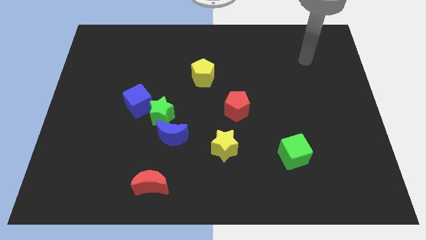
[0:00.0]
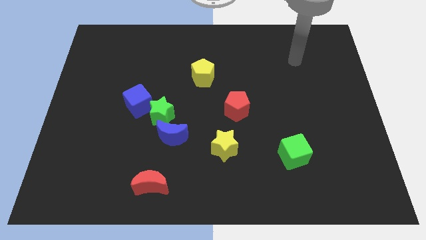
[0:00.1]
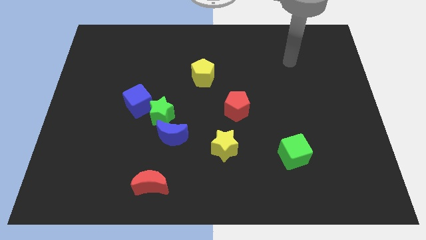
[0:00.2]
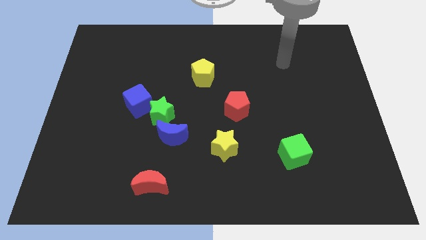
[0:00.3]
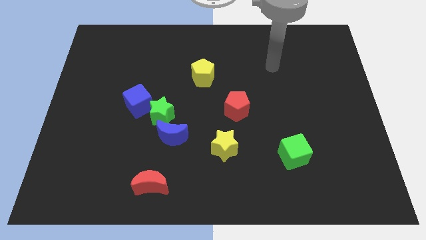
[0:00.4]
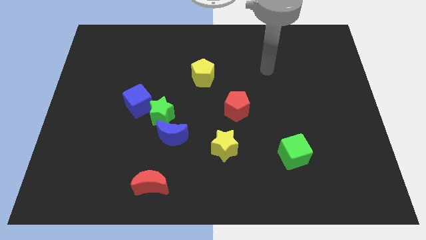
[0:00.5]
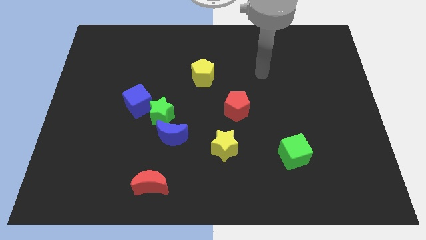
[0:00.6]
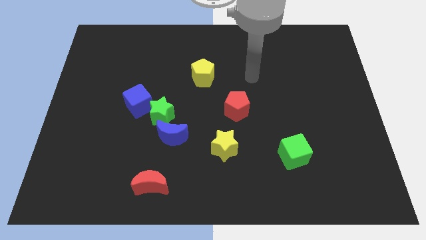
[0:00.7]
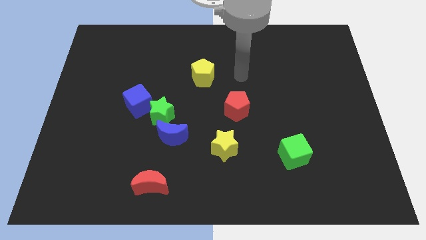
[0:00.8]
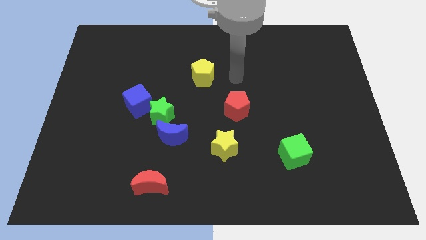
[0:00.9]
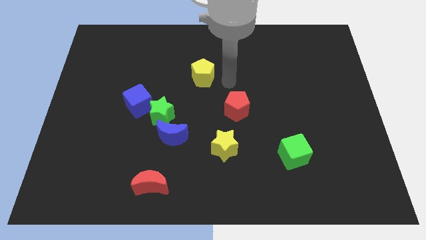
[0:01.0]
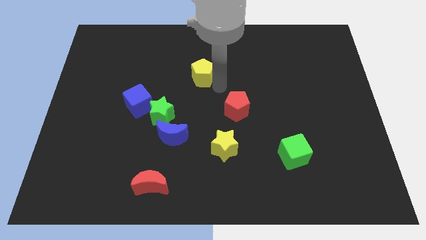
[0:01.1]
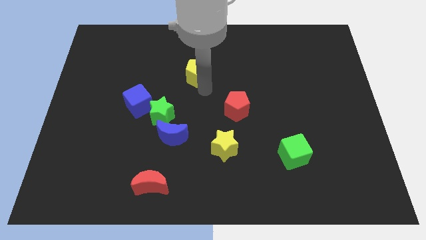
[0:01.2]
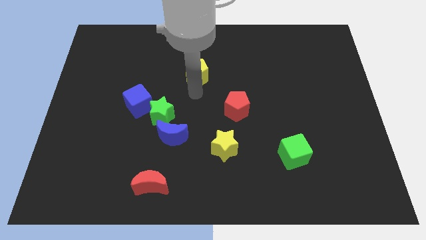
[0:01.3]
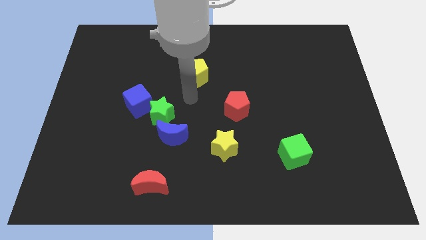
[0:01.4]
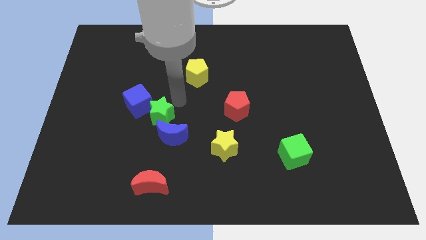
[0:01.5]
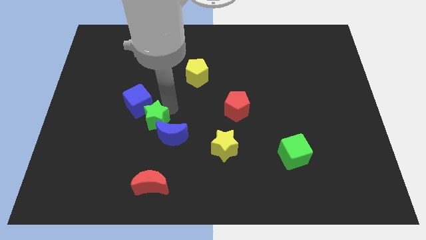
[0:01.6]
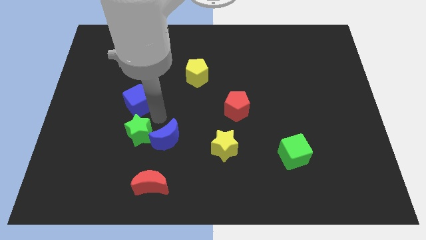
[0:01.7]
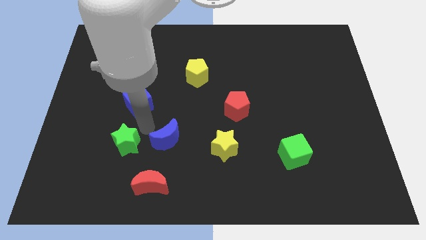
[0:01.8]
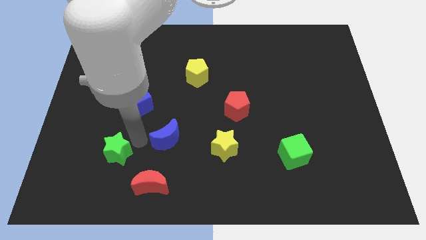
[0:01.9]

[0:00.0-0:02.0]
pull the blue moon apart from the green star

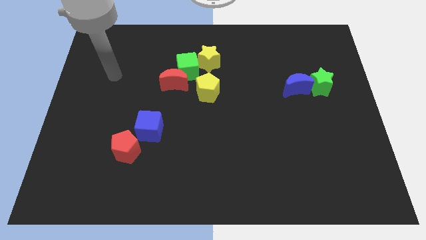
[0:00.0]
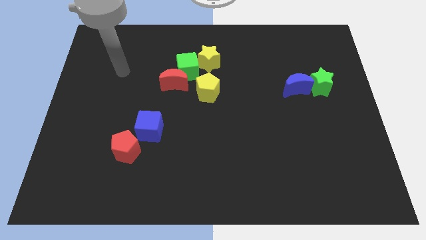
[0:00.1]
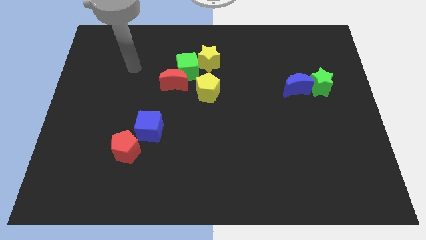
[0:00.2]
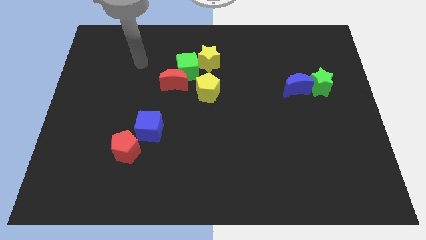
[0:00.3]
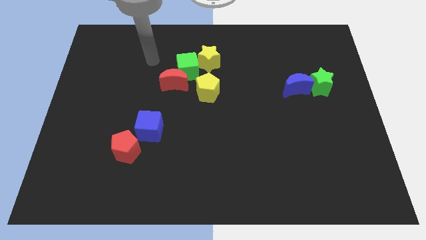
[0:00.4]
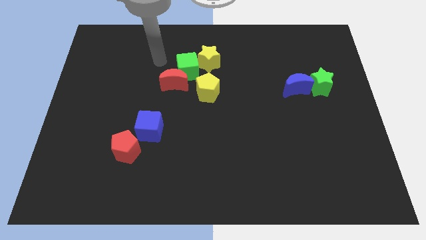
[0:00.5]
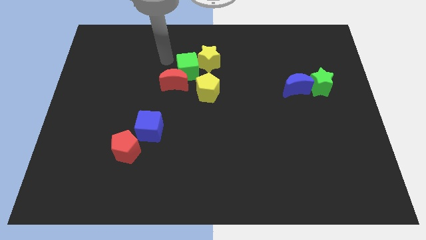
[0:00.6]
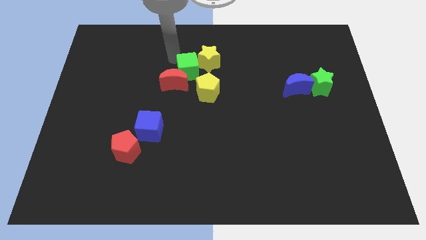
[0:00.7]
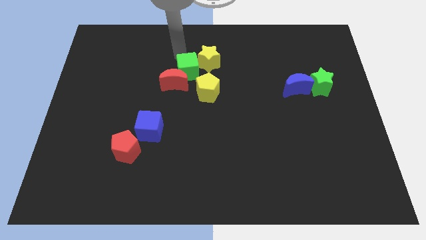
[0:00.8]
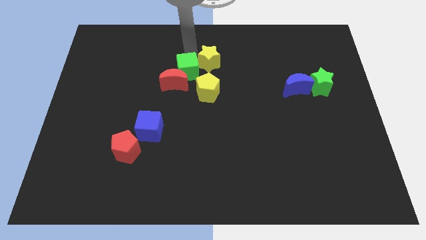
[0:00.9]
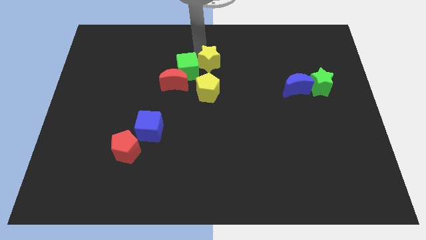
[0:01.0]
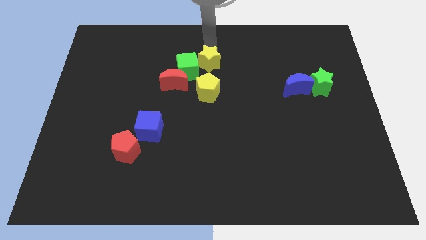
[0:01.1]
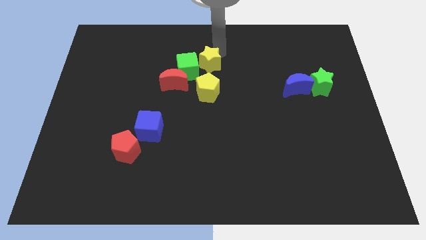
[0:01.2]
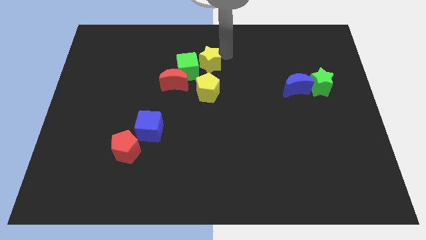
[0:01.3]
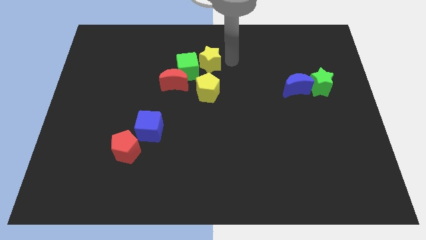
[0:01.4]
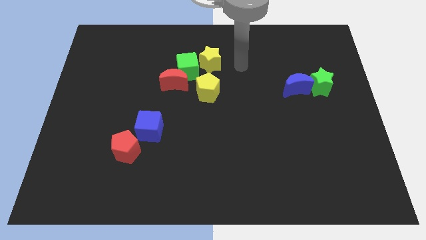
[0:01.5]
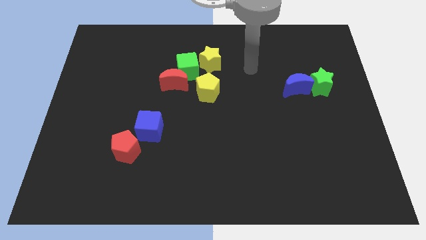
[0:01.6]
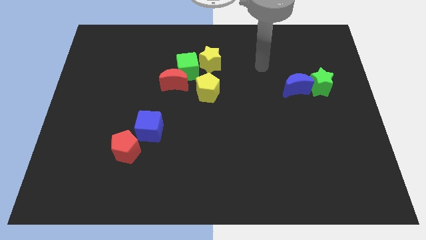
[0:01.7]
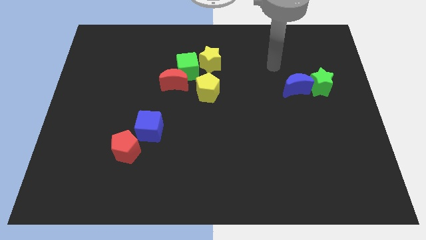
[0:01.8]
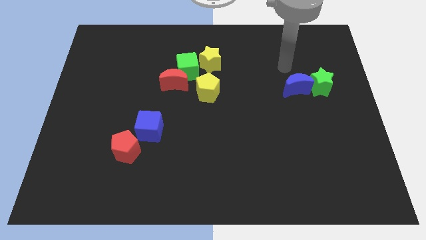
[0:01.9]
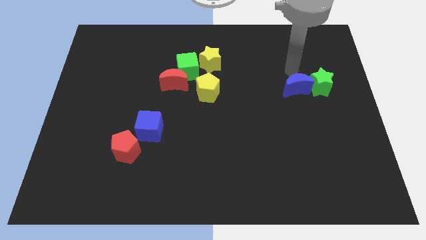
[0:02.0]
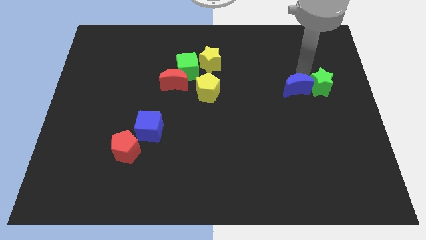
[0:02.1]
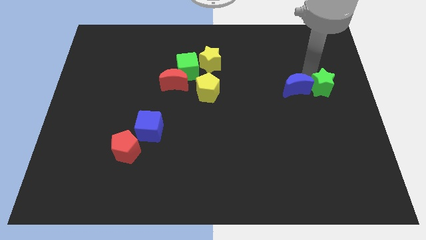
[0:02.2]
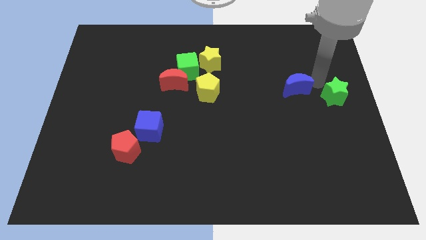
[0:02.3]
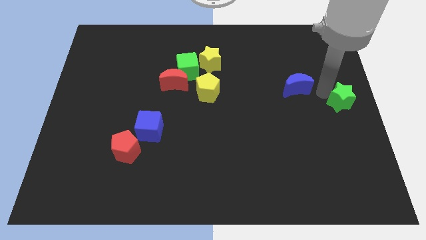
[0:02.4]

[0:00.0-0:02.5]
move the blue moon away from the green star

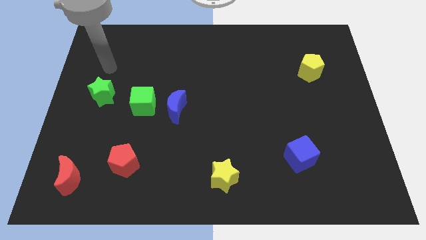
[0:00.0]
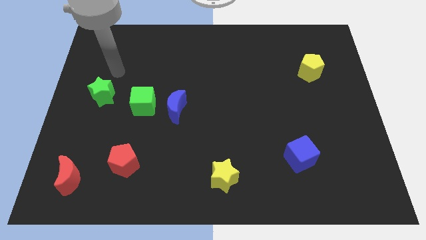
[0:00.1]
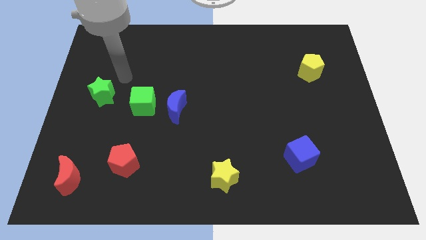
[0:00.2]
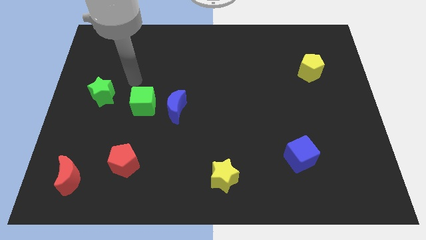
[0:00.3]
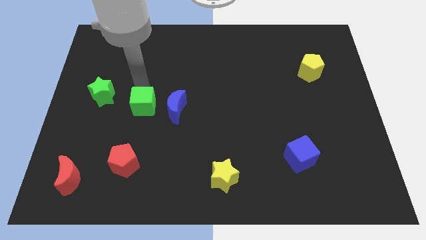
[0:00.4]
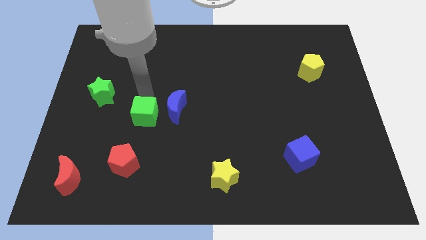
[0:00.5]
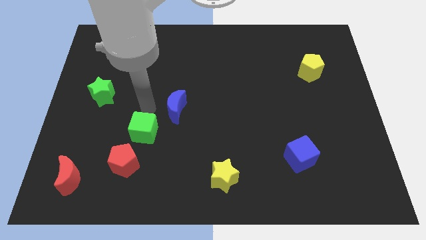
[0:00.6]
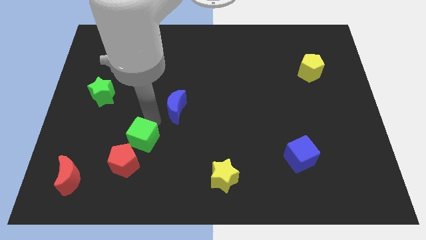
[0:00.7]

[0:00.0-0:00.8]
separate the blue moon from the green cube

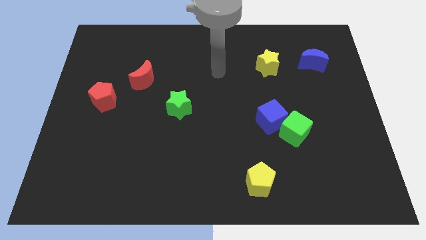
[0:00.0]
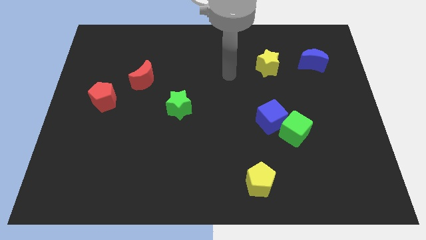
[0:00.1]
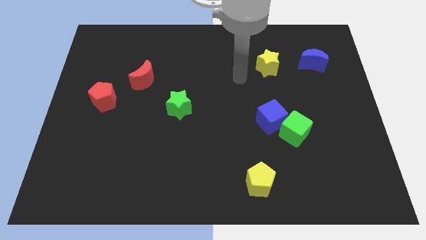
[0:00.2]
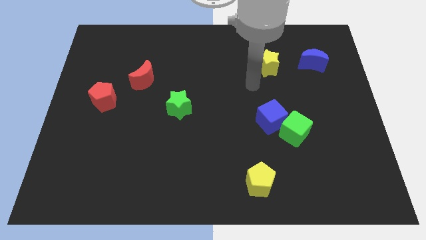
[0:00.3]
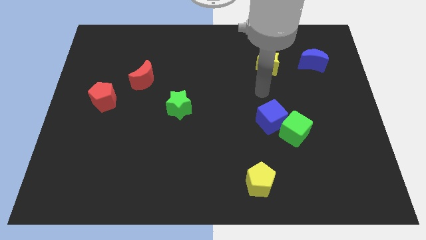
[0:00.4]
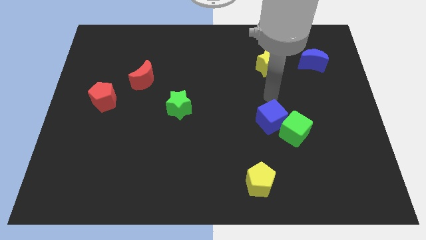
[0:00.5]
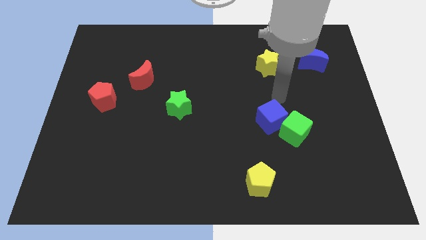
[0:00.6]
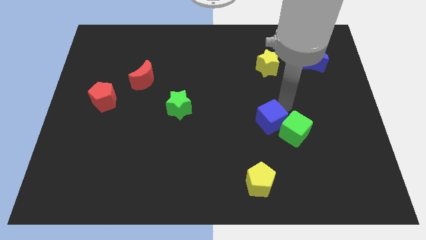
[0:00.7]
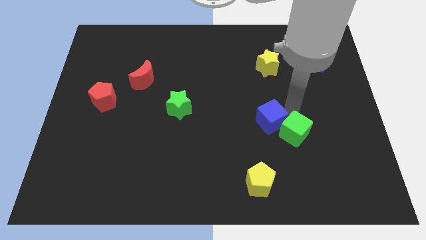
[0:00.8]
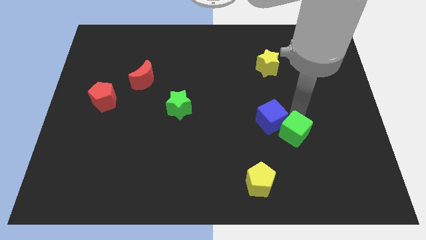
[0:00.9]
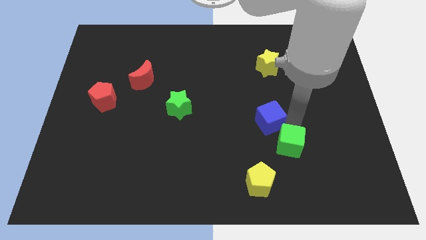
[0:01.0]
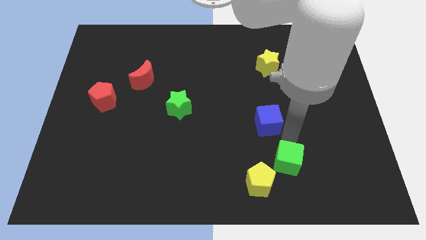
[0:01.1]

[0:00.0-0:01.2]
separate the blue cube from the green cube

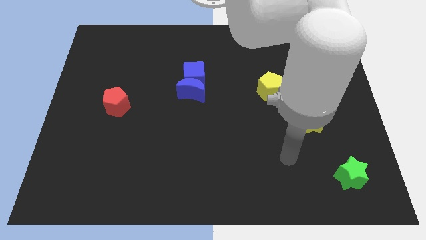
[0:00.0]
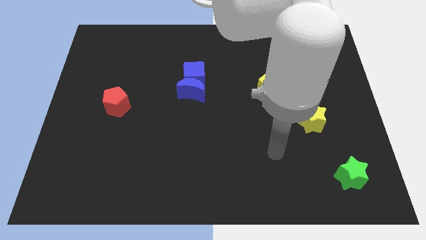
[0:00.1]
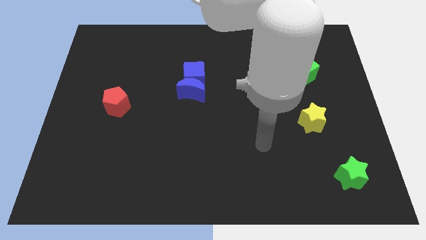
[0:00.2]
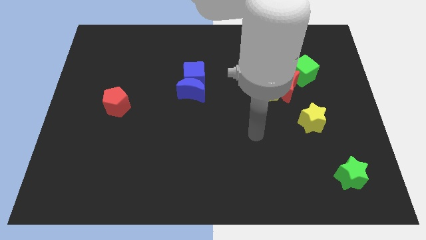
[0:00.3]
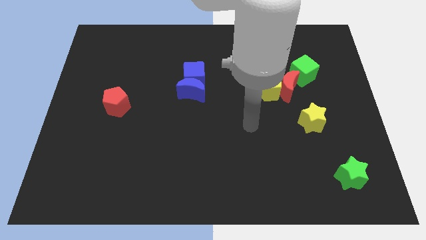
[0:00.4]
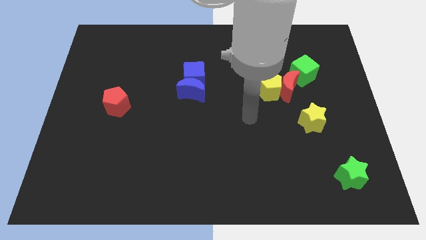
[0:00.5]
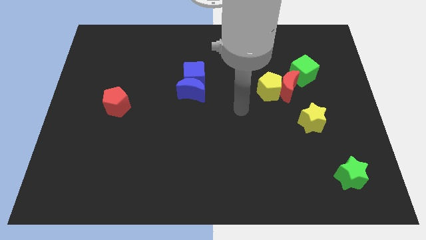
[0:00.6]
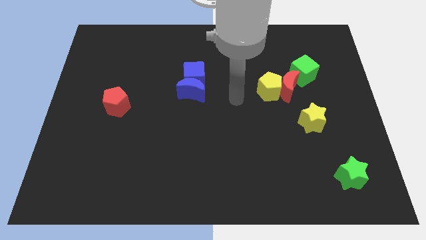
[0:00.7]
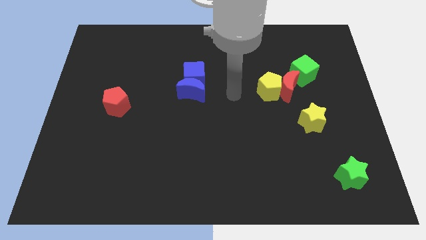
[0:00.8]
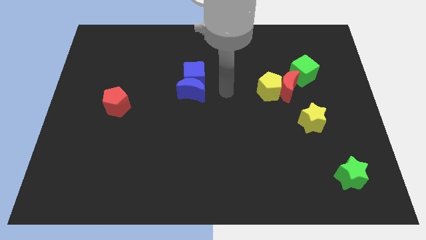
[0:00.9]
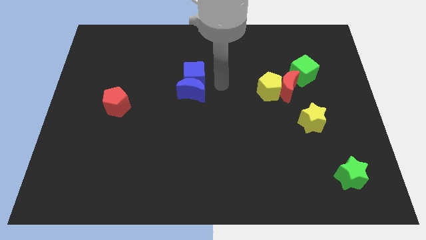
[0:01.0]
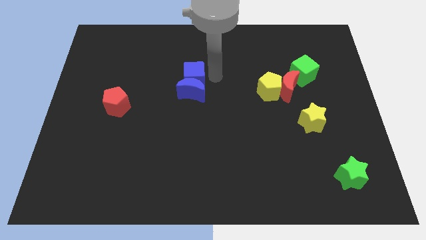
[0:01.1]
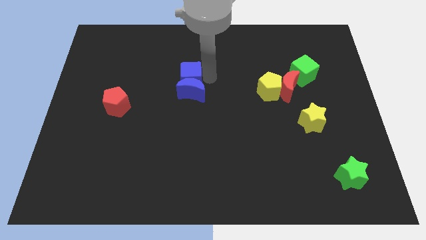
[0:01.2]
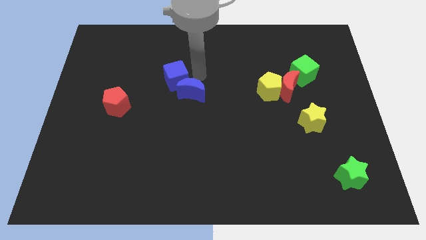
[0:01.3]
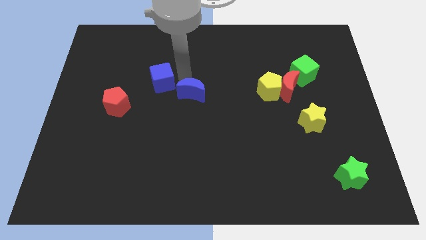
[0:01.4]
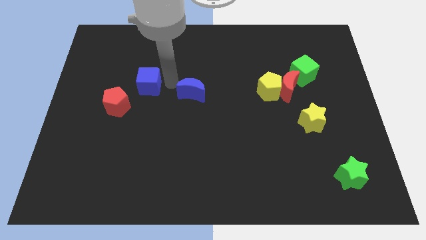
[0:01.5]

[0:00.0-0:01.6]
separate the blue moon from the blue cube

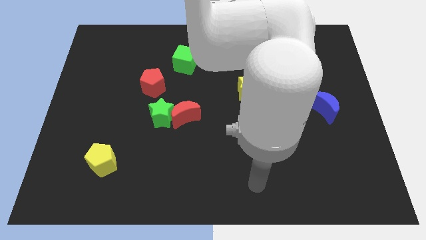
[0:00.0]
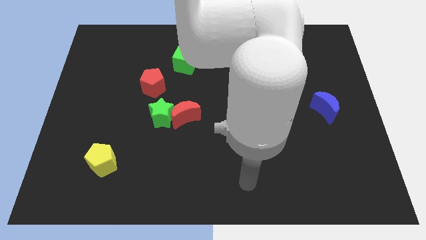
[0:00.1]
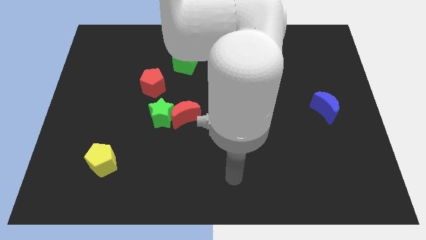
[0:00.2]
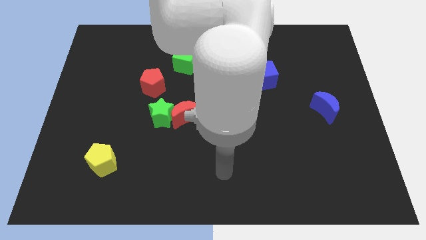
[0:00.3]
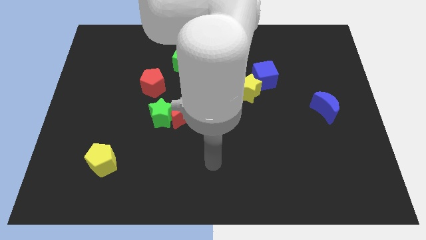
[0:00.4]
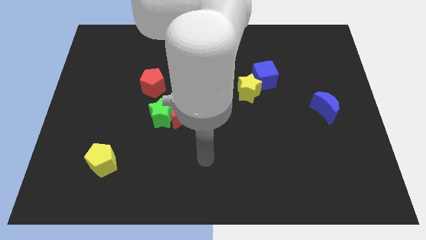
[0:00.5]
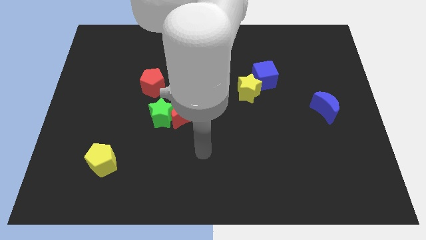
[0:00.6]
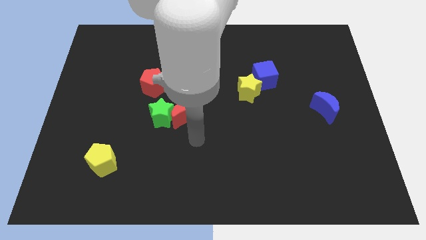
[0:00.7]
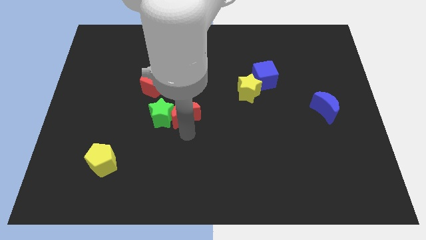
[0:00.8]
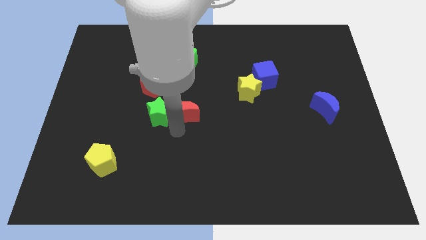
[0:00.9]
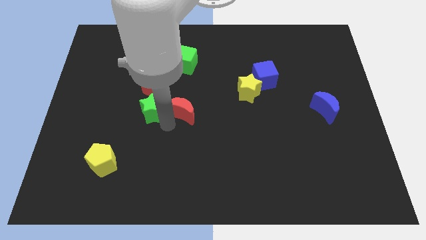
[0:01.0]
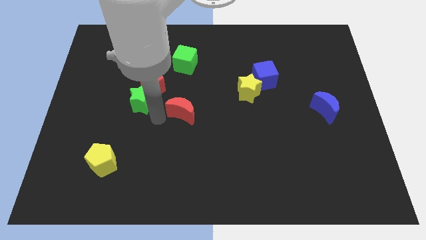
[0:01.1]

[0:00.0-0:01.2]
pull the red moon apart from the green star
